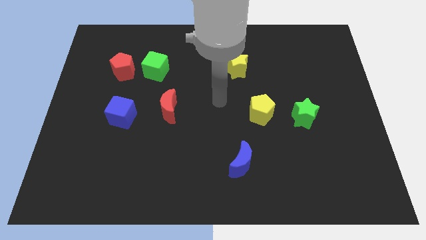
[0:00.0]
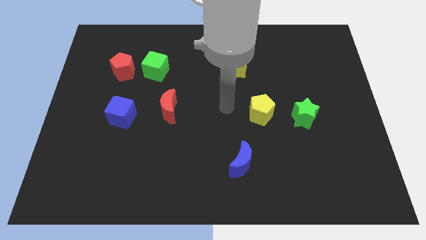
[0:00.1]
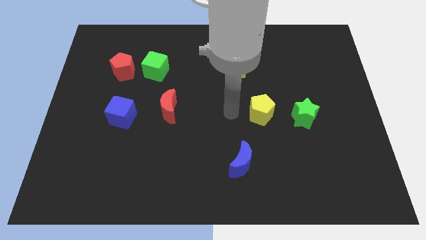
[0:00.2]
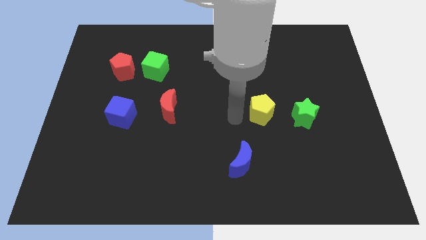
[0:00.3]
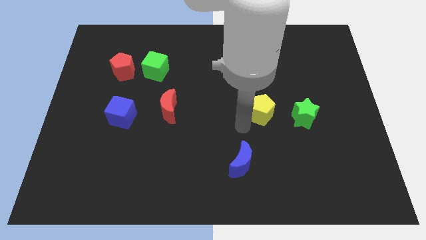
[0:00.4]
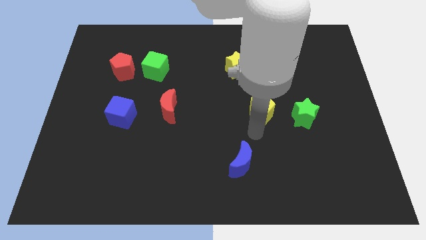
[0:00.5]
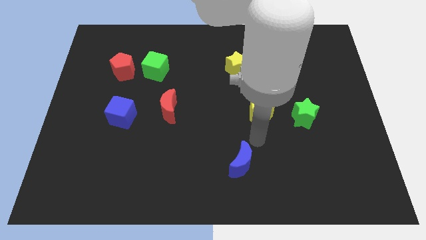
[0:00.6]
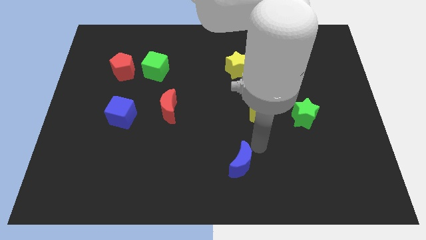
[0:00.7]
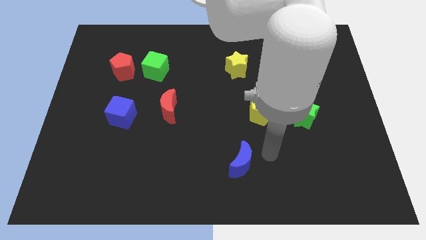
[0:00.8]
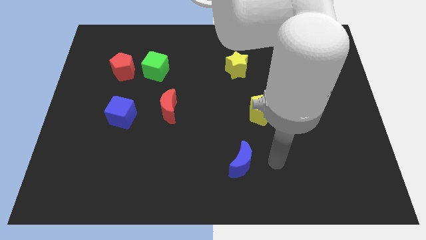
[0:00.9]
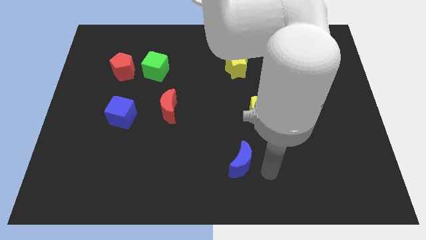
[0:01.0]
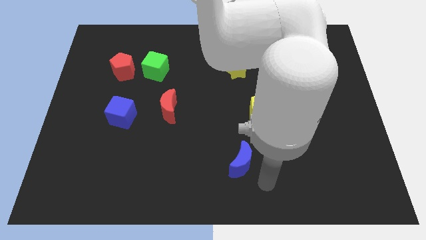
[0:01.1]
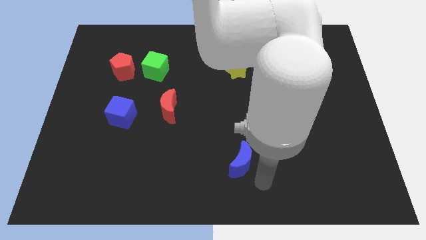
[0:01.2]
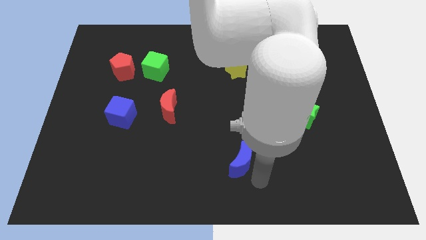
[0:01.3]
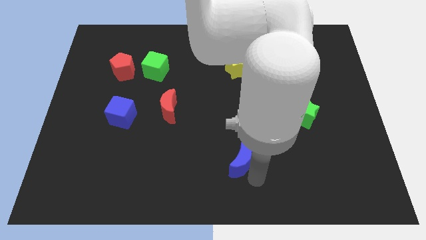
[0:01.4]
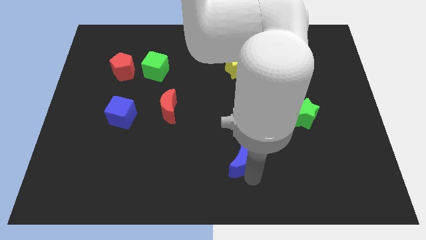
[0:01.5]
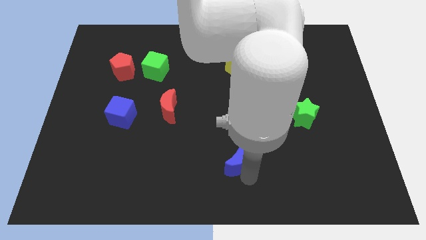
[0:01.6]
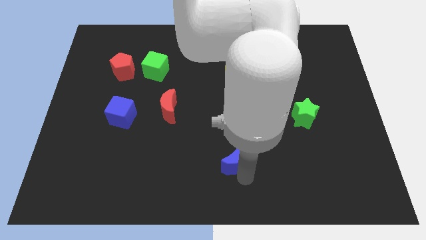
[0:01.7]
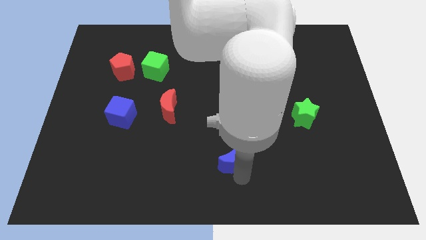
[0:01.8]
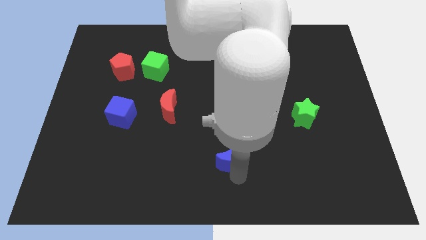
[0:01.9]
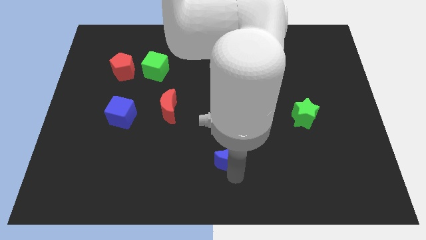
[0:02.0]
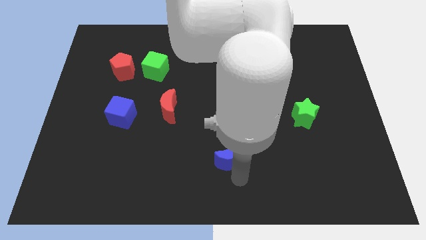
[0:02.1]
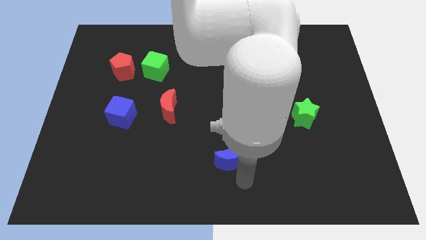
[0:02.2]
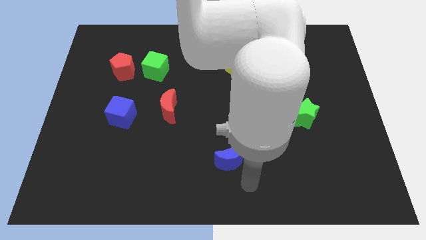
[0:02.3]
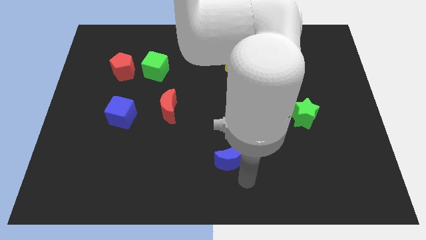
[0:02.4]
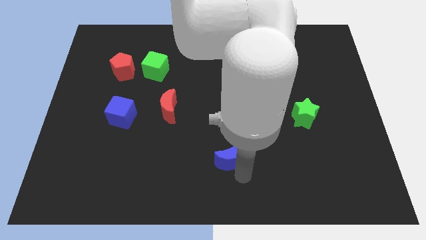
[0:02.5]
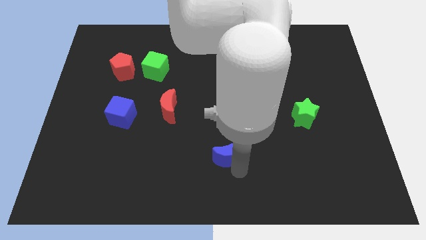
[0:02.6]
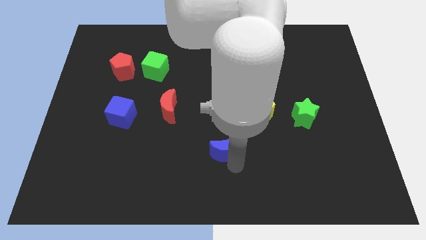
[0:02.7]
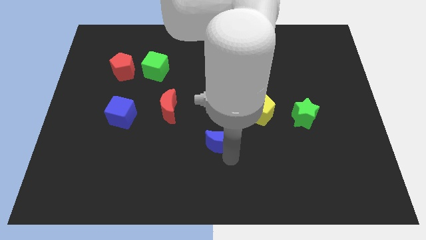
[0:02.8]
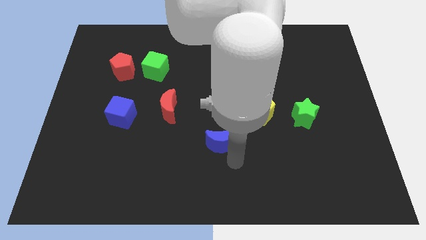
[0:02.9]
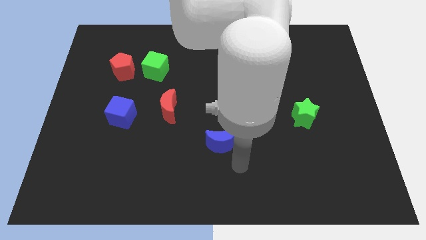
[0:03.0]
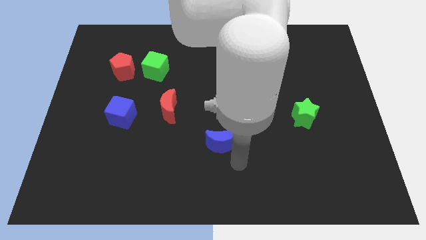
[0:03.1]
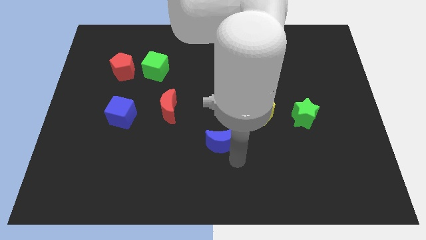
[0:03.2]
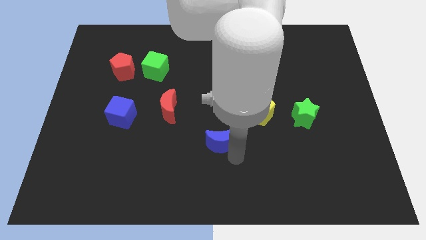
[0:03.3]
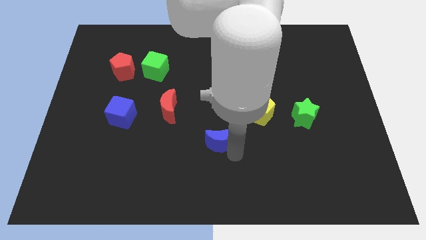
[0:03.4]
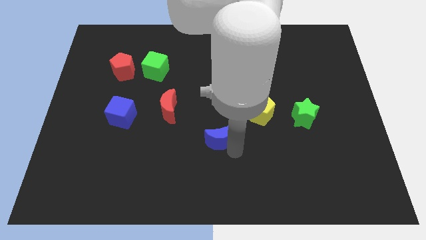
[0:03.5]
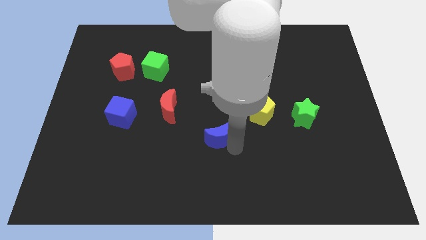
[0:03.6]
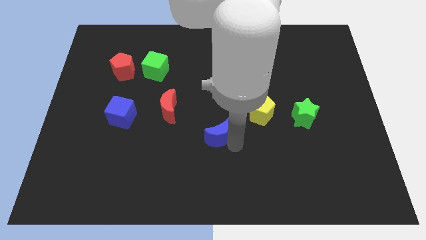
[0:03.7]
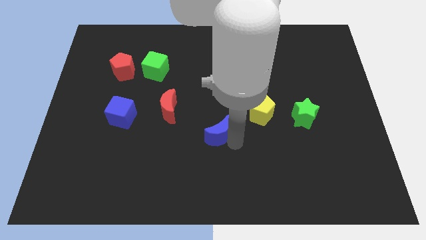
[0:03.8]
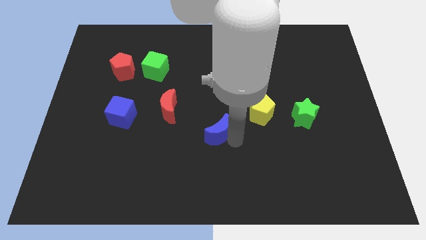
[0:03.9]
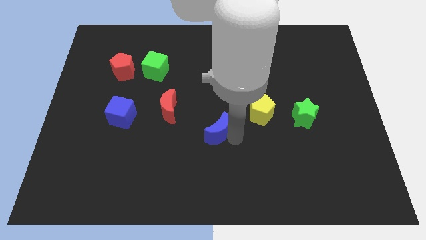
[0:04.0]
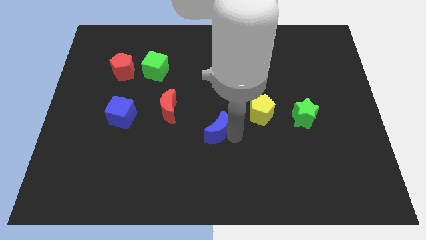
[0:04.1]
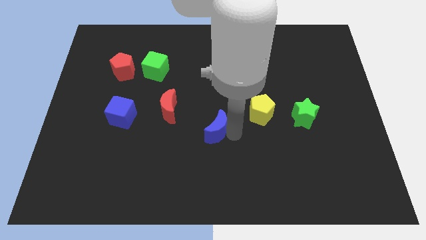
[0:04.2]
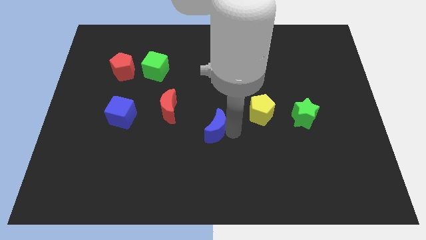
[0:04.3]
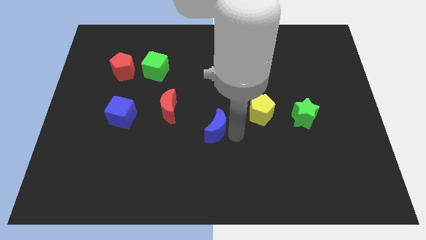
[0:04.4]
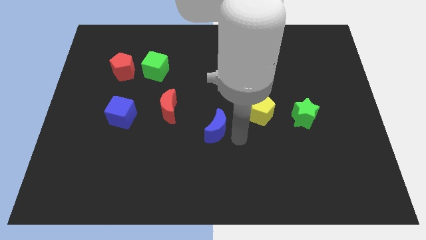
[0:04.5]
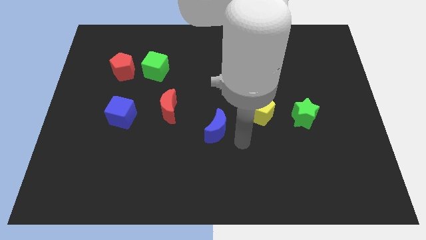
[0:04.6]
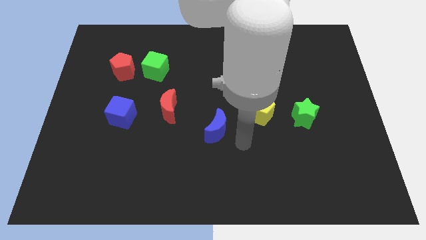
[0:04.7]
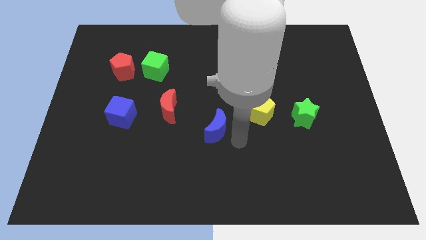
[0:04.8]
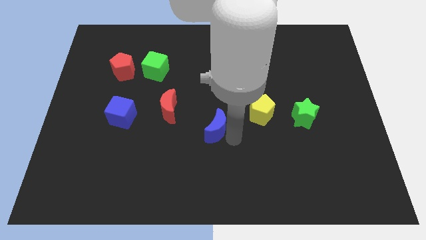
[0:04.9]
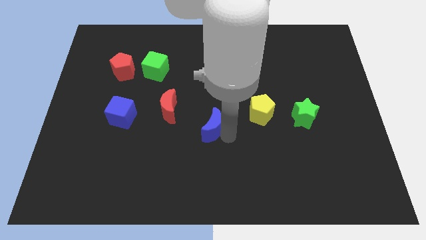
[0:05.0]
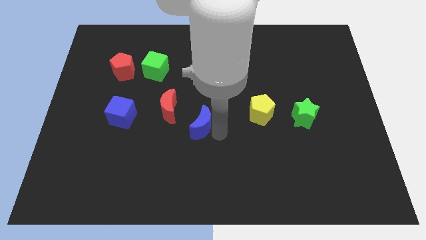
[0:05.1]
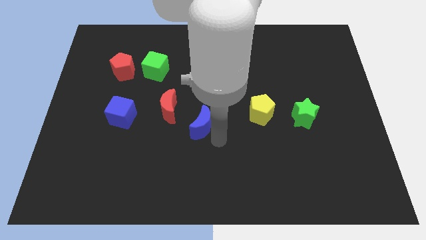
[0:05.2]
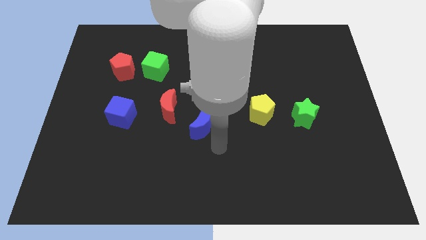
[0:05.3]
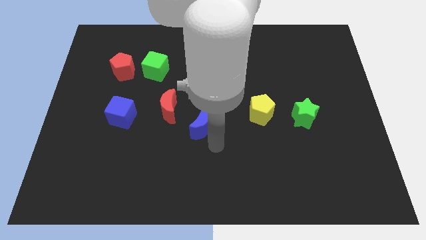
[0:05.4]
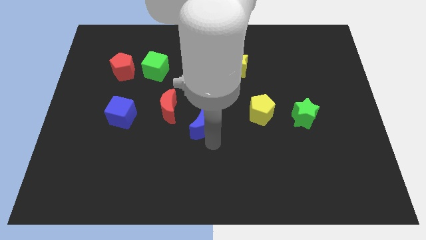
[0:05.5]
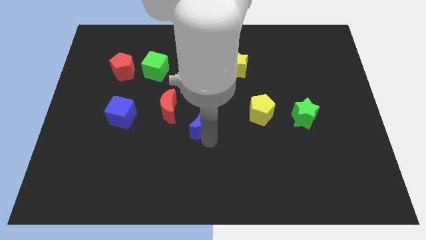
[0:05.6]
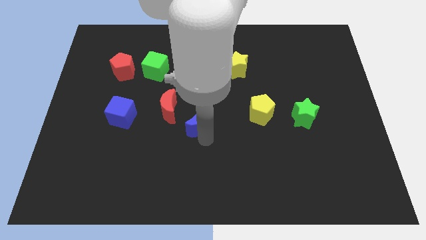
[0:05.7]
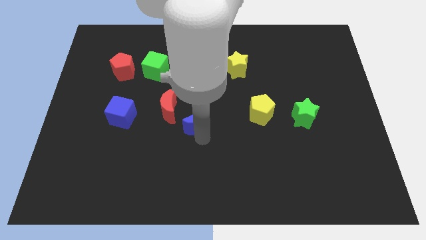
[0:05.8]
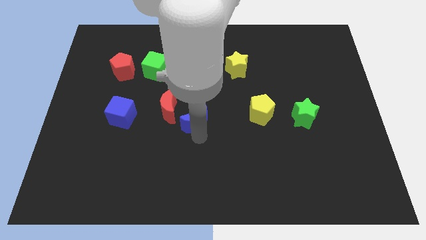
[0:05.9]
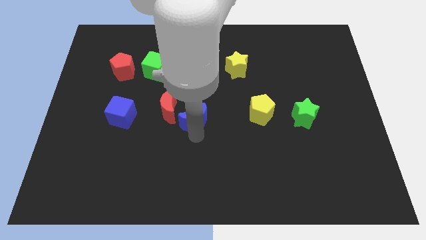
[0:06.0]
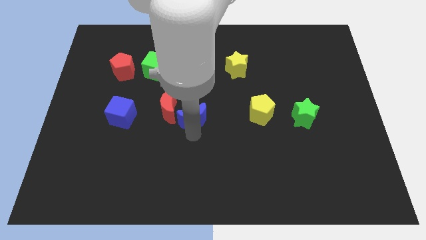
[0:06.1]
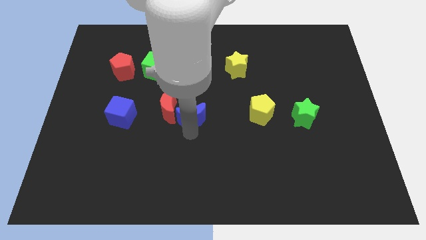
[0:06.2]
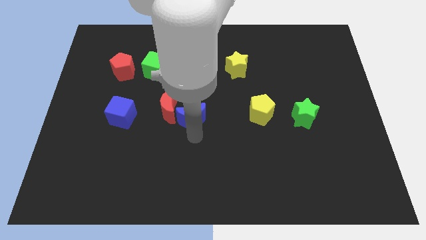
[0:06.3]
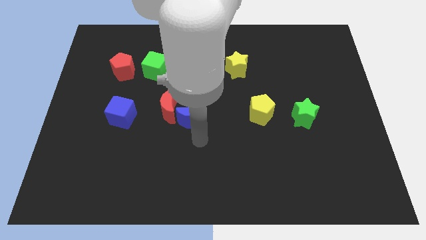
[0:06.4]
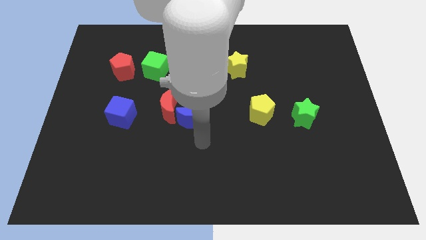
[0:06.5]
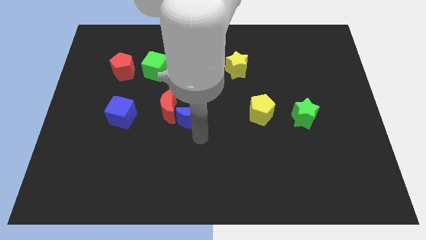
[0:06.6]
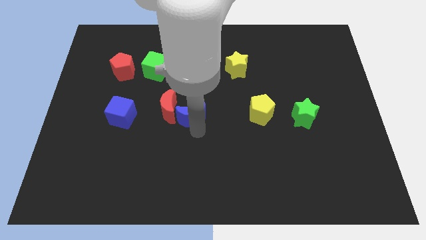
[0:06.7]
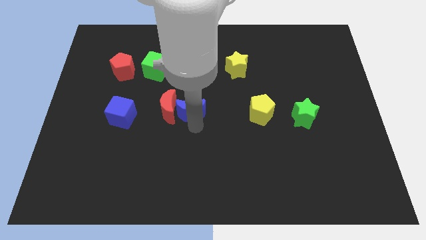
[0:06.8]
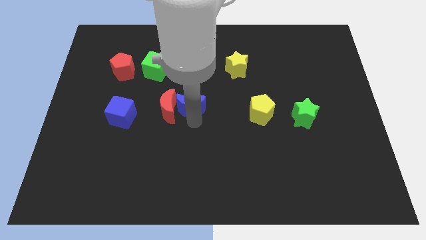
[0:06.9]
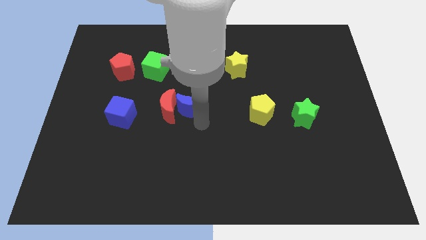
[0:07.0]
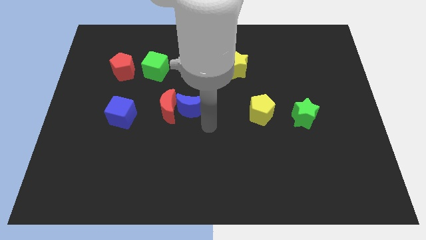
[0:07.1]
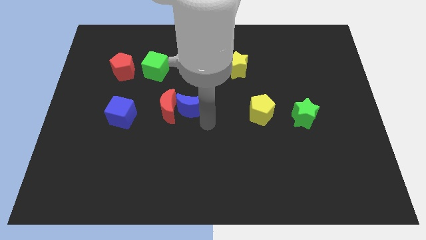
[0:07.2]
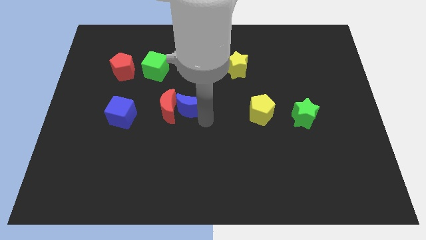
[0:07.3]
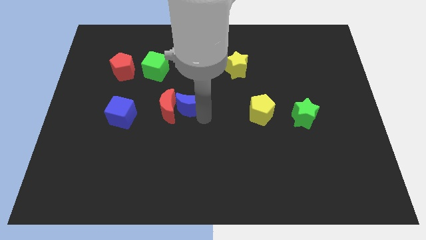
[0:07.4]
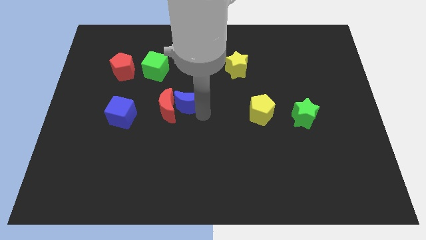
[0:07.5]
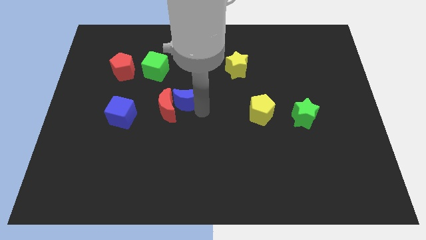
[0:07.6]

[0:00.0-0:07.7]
move the blue moon diagonally upwards and left

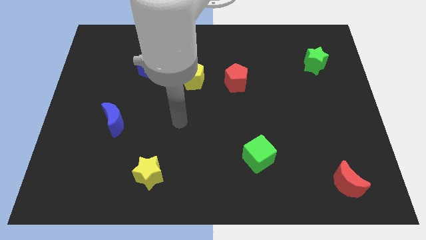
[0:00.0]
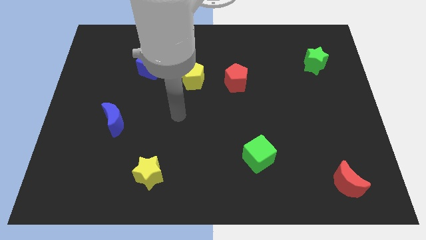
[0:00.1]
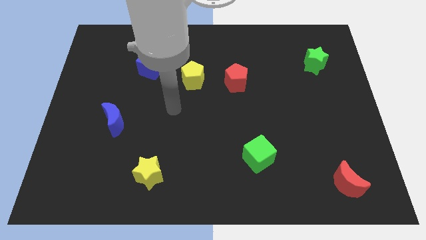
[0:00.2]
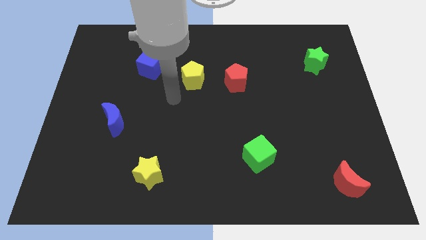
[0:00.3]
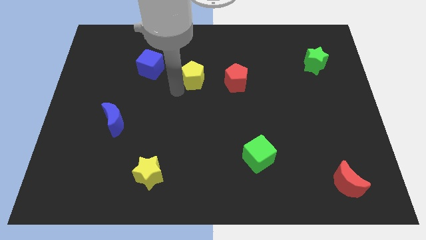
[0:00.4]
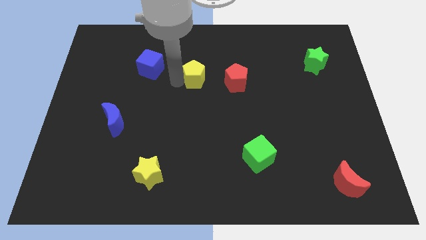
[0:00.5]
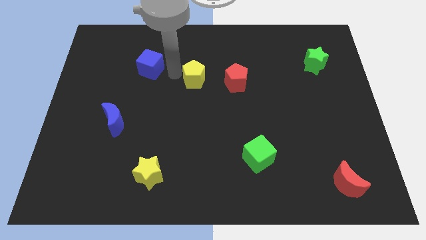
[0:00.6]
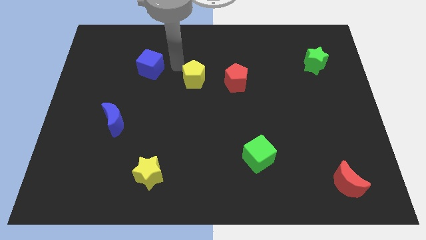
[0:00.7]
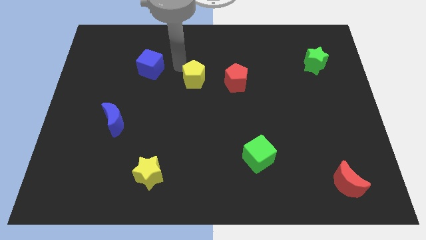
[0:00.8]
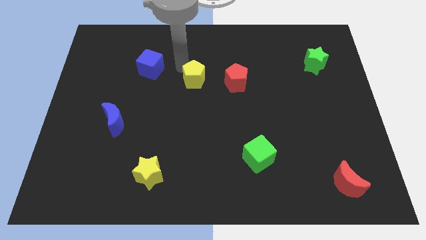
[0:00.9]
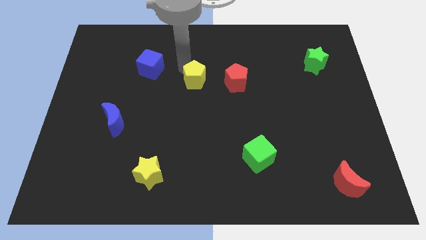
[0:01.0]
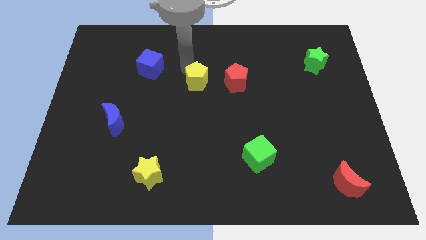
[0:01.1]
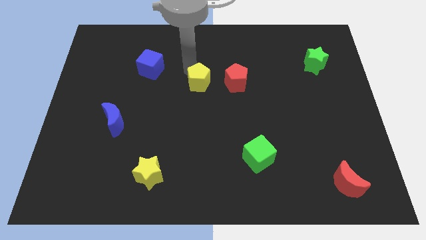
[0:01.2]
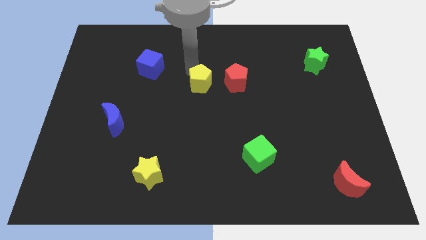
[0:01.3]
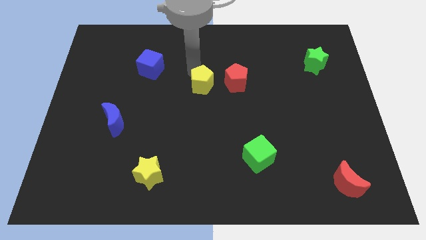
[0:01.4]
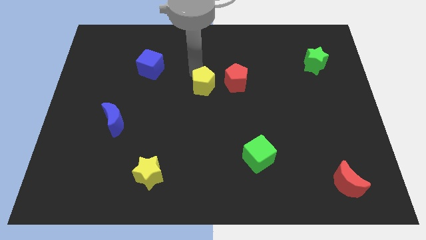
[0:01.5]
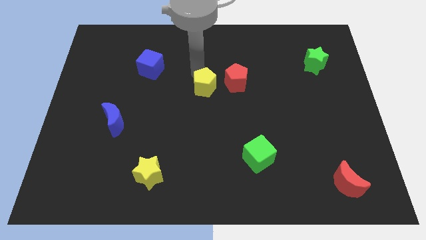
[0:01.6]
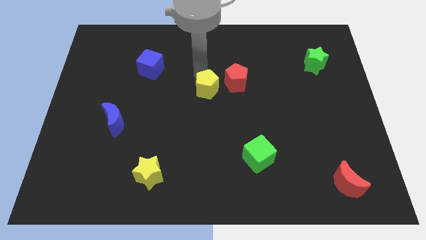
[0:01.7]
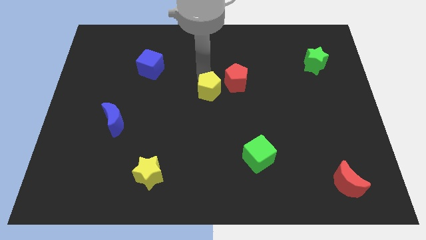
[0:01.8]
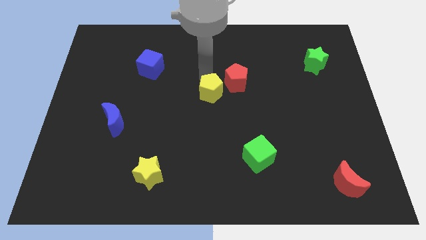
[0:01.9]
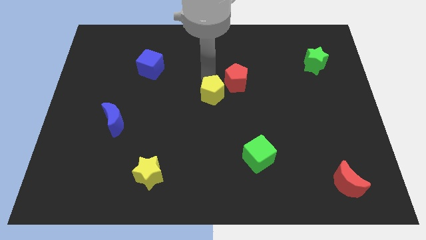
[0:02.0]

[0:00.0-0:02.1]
push the yellow pentagon diagonally down and right a little bit
